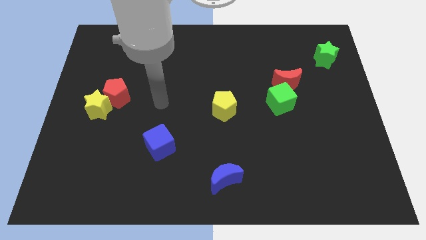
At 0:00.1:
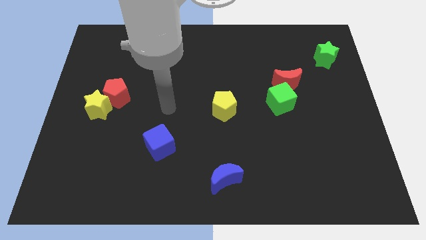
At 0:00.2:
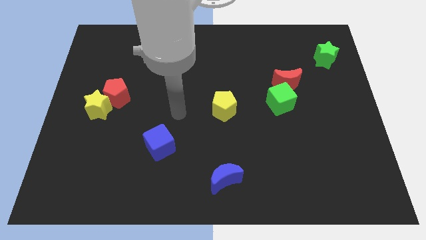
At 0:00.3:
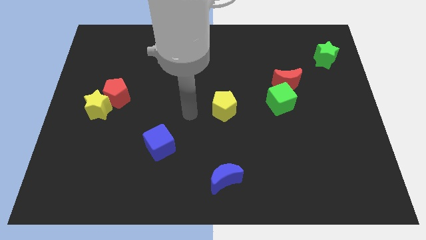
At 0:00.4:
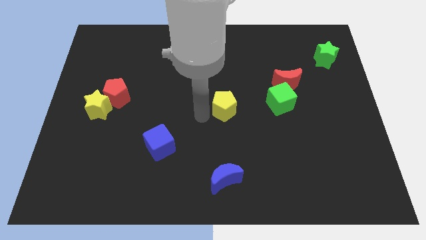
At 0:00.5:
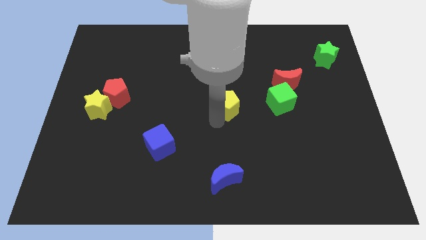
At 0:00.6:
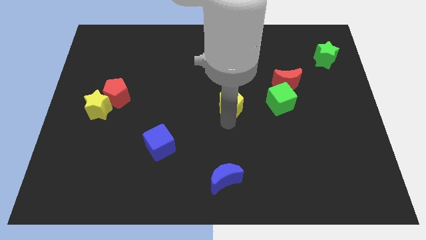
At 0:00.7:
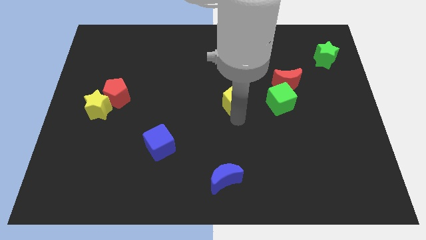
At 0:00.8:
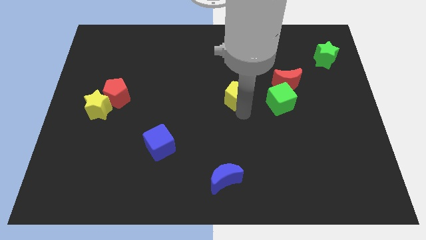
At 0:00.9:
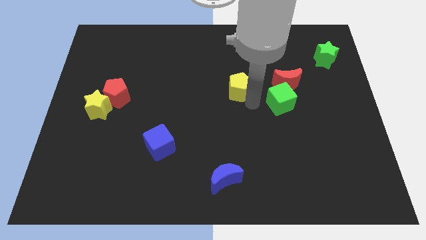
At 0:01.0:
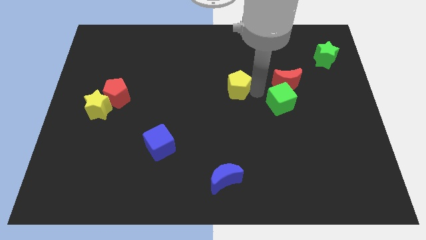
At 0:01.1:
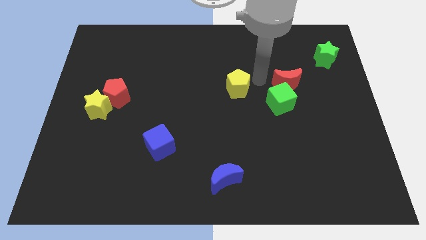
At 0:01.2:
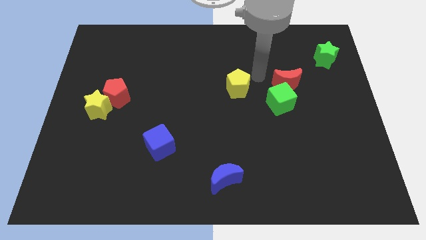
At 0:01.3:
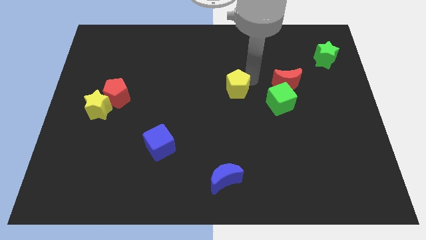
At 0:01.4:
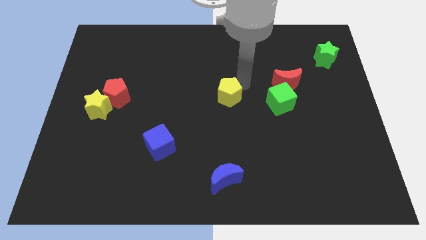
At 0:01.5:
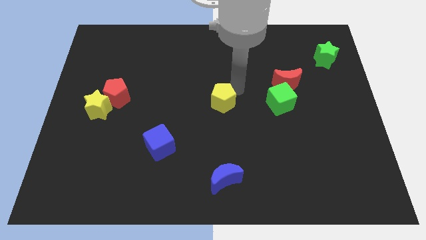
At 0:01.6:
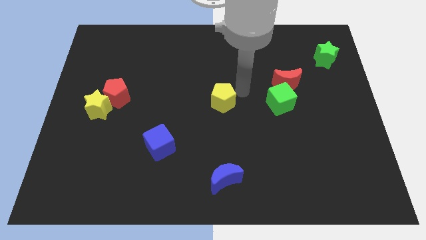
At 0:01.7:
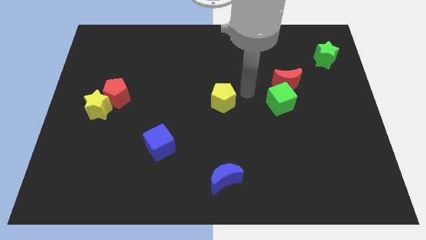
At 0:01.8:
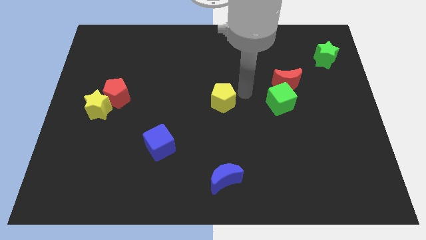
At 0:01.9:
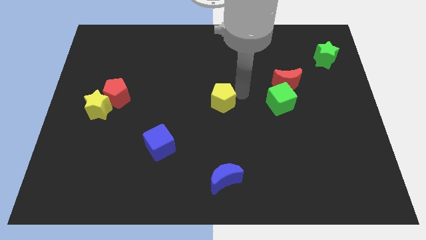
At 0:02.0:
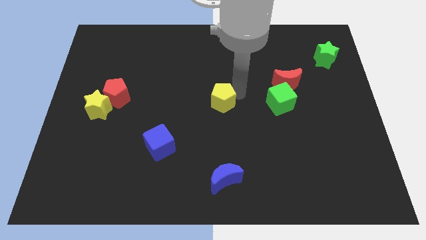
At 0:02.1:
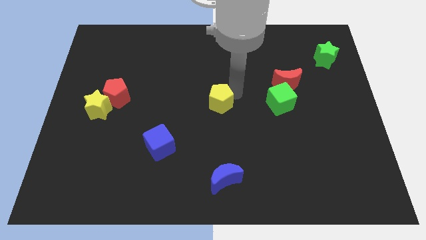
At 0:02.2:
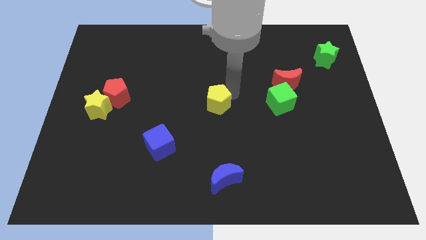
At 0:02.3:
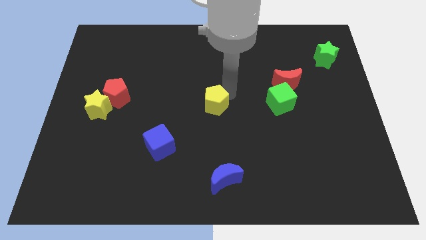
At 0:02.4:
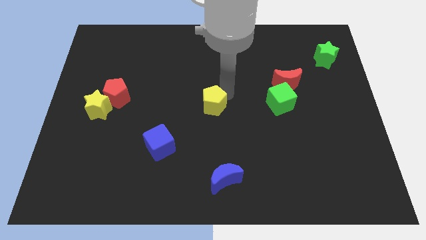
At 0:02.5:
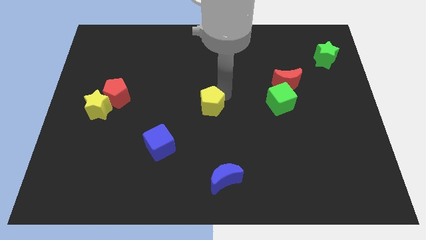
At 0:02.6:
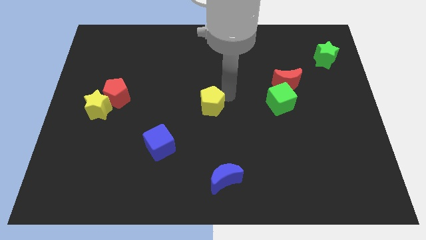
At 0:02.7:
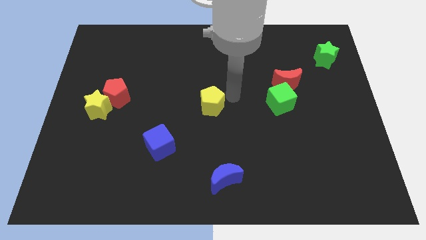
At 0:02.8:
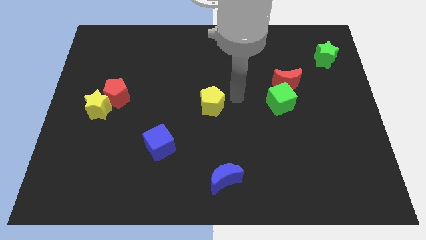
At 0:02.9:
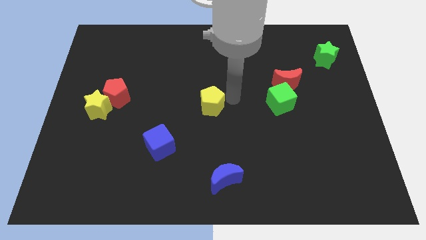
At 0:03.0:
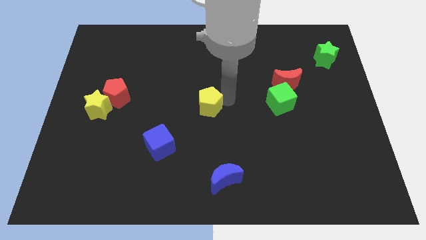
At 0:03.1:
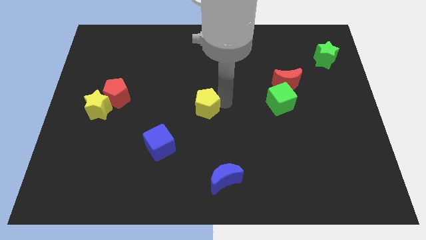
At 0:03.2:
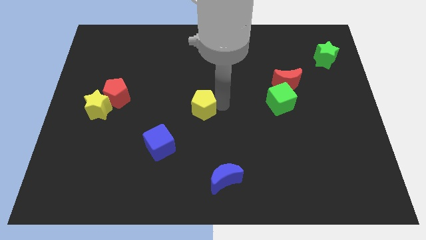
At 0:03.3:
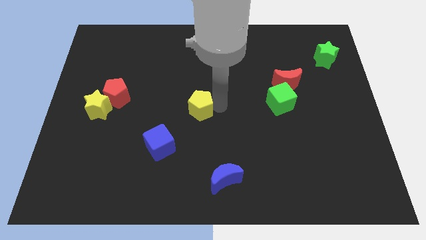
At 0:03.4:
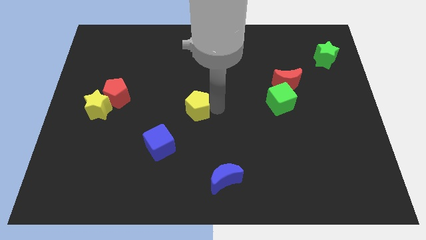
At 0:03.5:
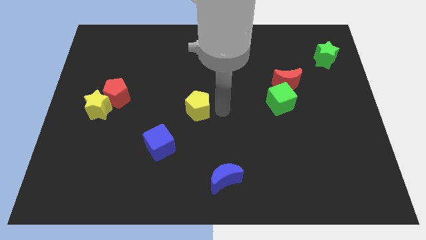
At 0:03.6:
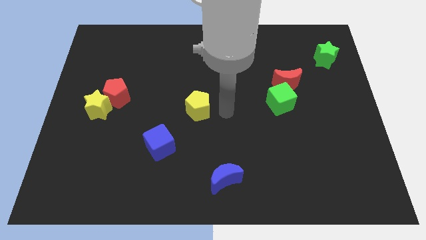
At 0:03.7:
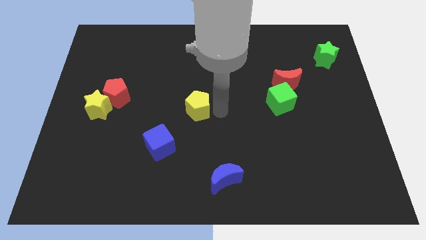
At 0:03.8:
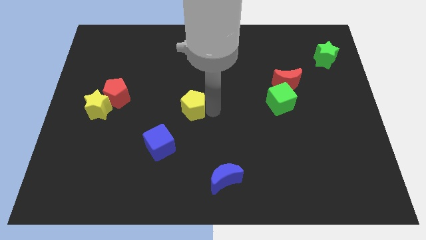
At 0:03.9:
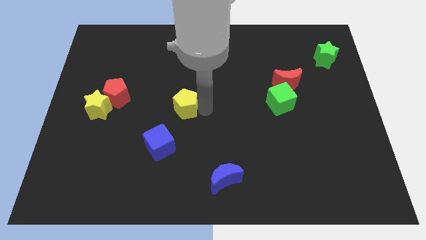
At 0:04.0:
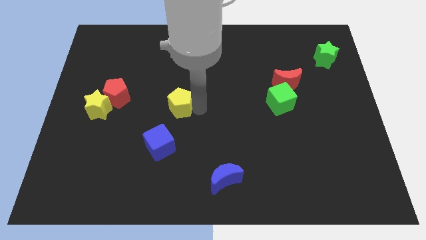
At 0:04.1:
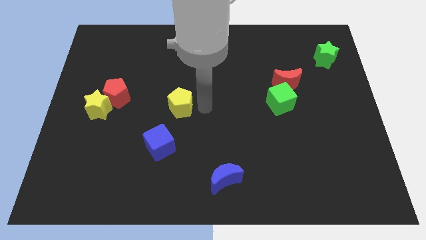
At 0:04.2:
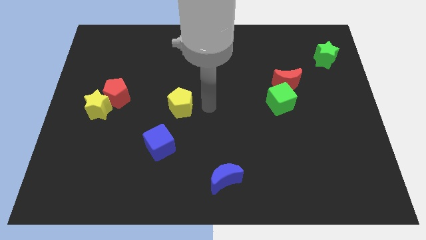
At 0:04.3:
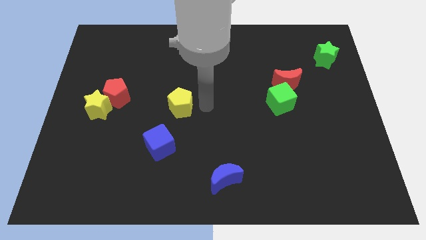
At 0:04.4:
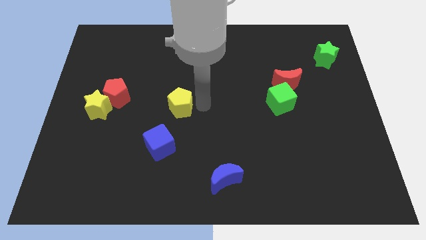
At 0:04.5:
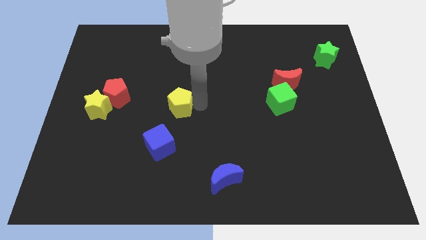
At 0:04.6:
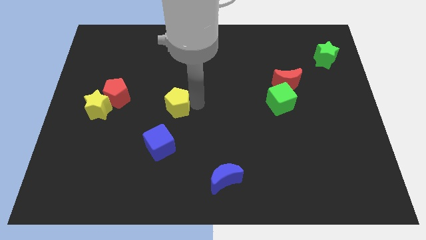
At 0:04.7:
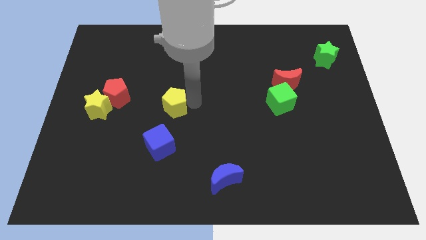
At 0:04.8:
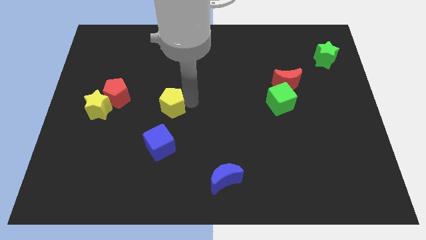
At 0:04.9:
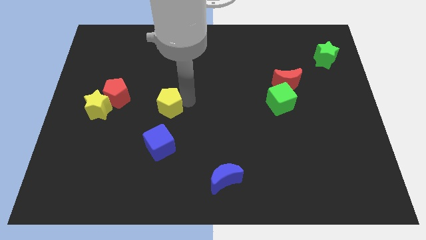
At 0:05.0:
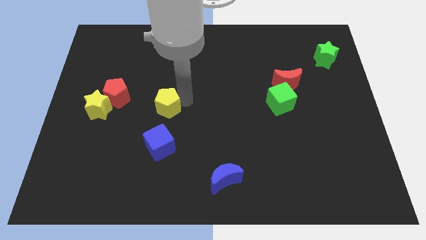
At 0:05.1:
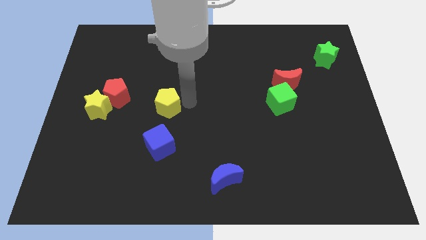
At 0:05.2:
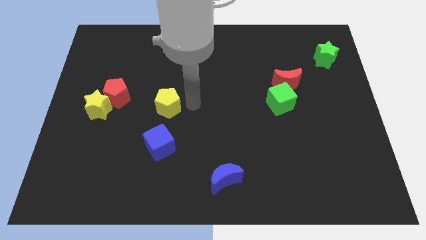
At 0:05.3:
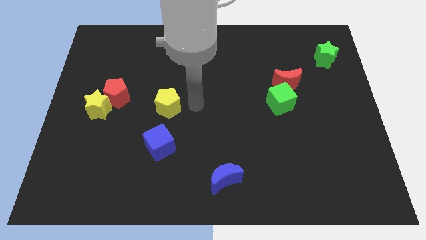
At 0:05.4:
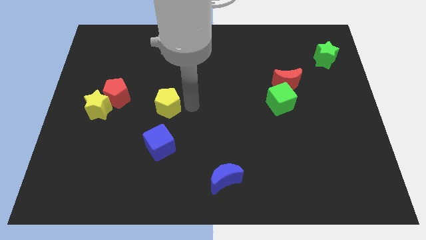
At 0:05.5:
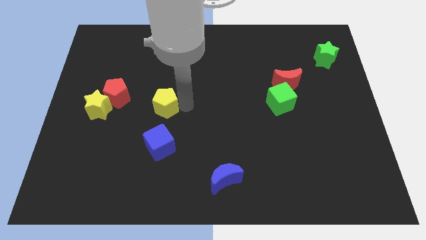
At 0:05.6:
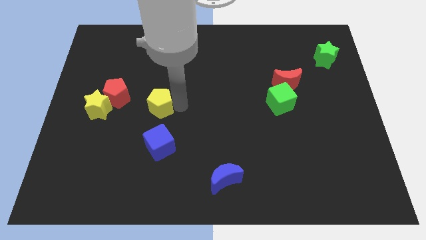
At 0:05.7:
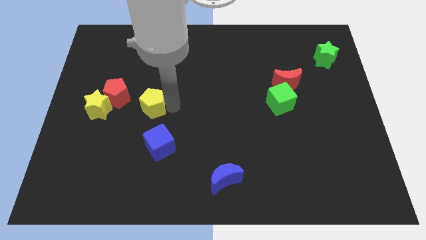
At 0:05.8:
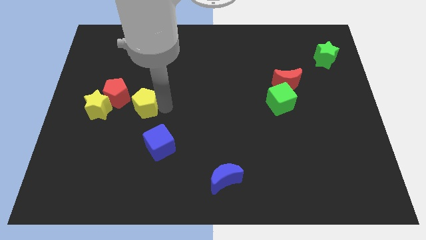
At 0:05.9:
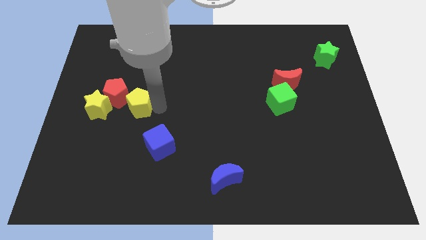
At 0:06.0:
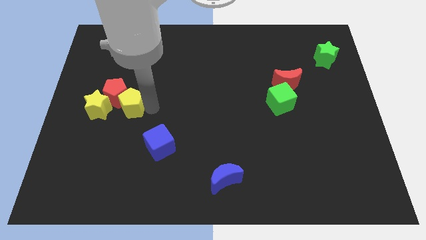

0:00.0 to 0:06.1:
slide the yellow pentagon towards the red pentagon

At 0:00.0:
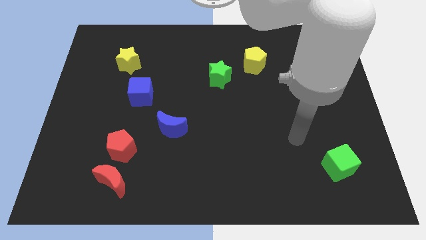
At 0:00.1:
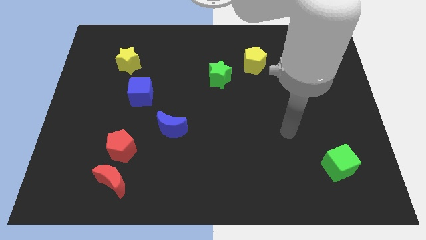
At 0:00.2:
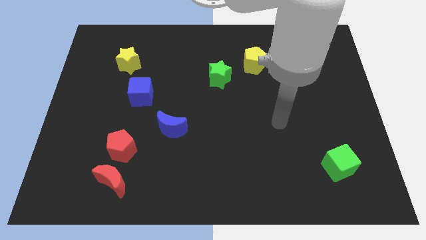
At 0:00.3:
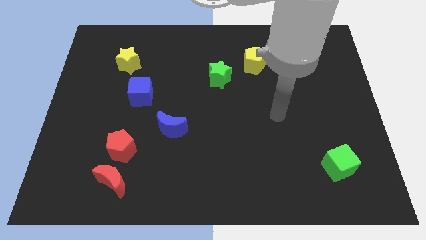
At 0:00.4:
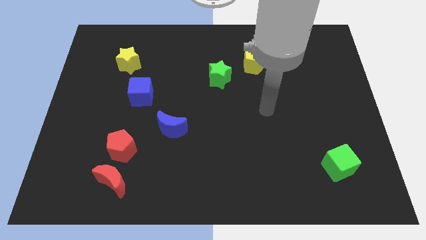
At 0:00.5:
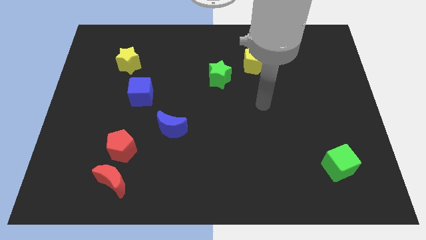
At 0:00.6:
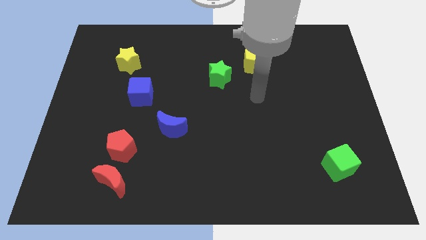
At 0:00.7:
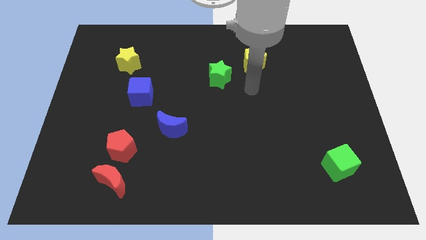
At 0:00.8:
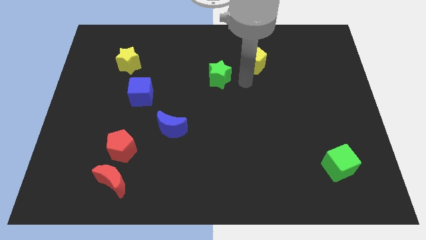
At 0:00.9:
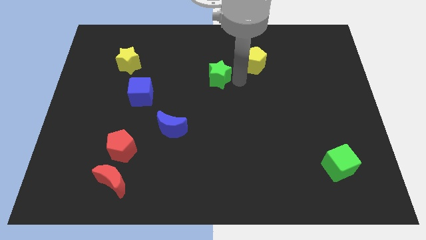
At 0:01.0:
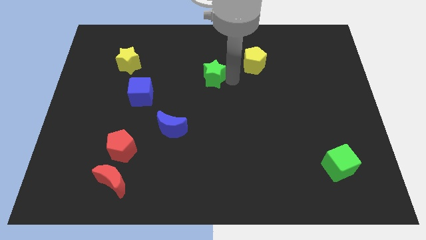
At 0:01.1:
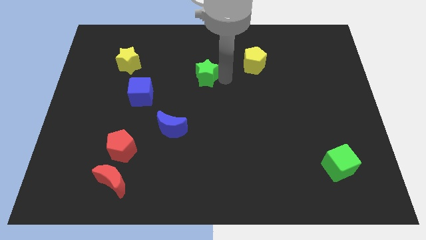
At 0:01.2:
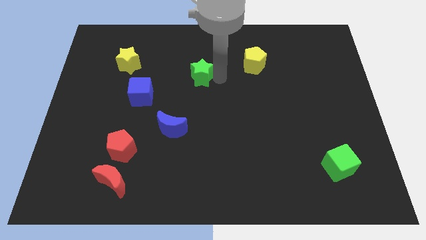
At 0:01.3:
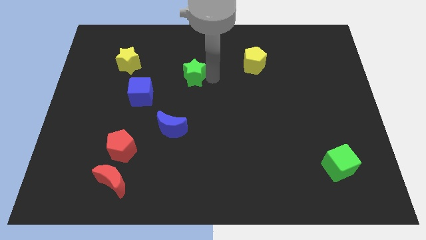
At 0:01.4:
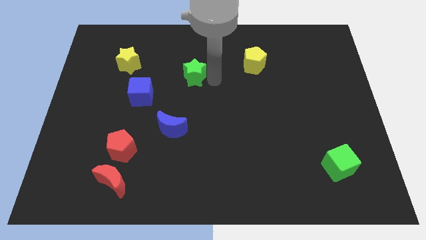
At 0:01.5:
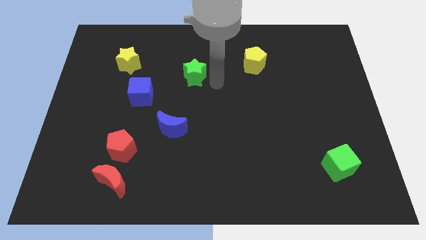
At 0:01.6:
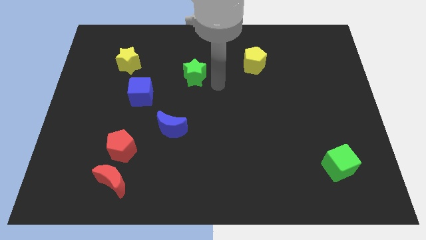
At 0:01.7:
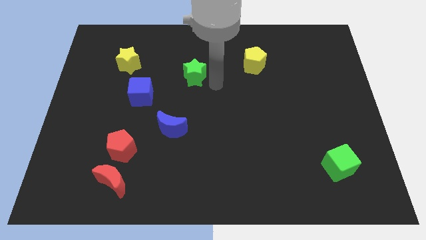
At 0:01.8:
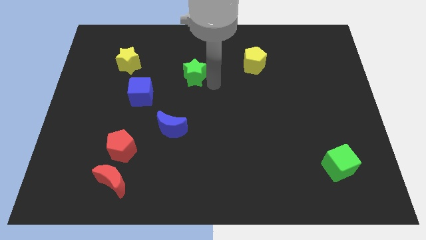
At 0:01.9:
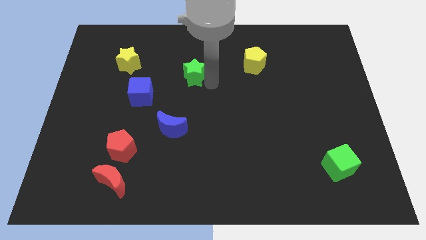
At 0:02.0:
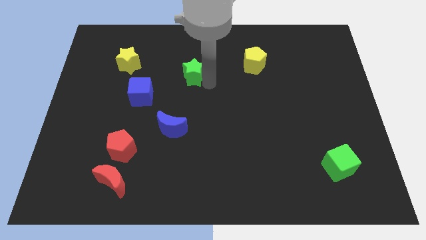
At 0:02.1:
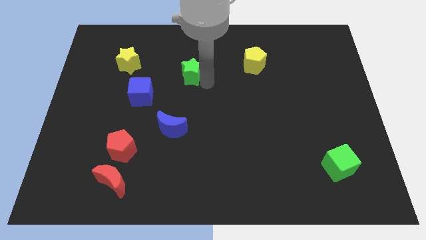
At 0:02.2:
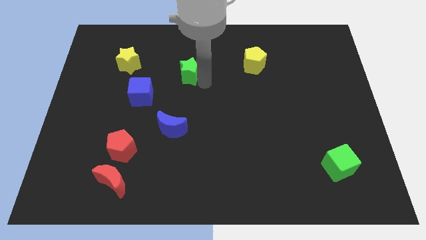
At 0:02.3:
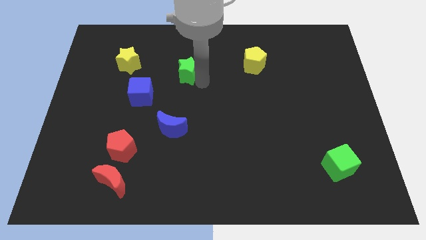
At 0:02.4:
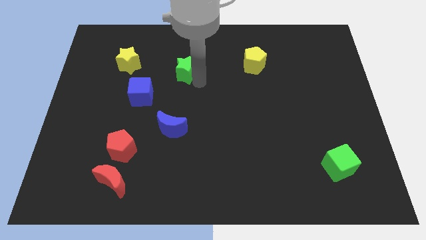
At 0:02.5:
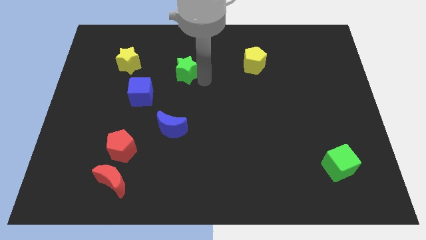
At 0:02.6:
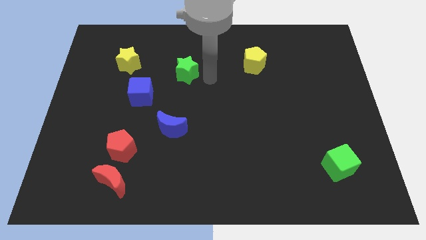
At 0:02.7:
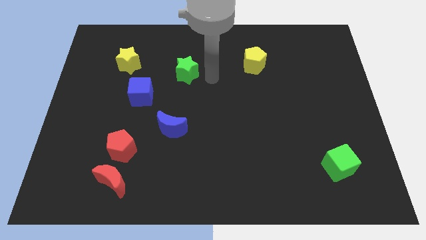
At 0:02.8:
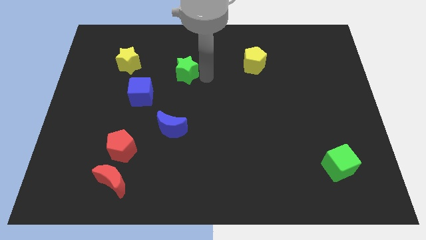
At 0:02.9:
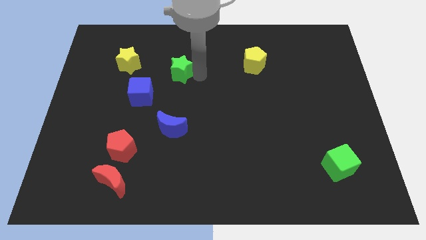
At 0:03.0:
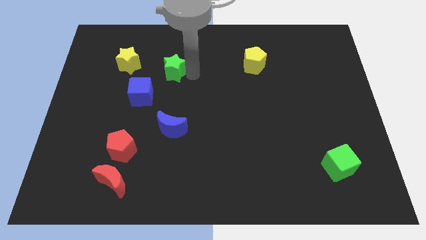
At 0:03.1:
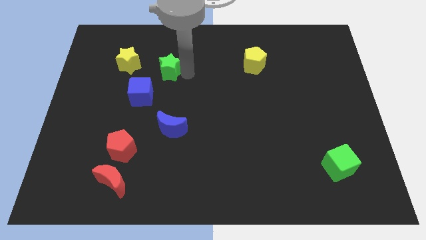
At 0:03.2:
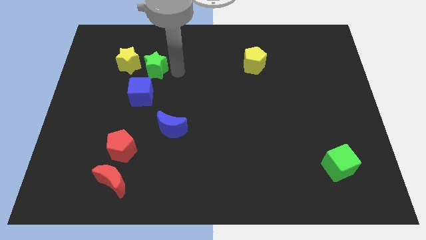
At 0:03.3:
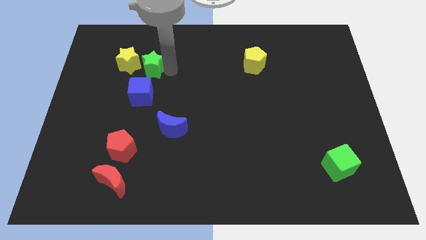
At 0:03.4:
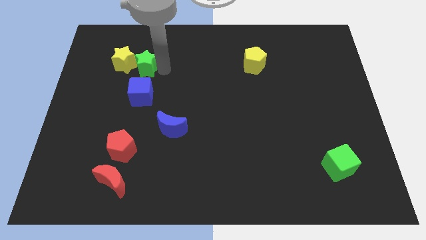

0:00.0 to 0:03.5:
slide the green star close to the yellow star
